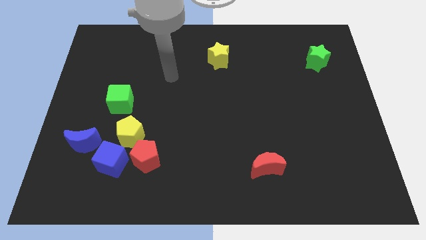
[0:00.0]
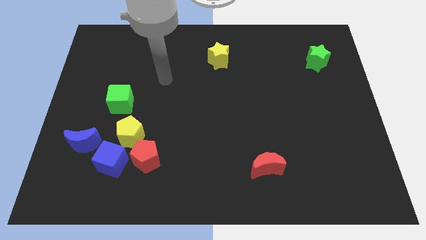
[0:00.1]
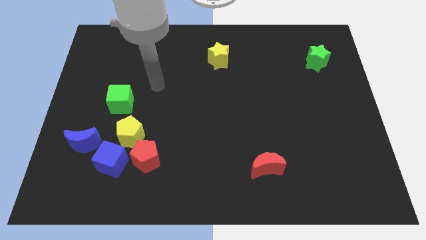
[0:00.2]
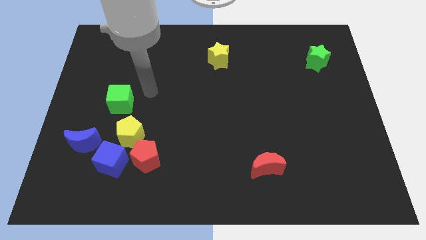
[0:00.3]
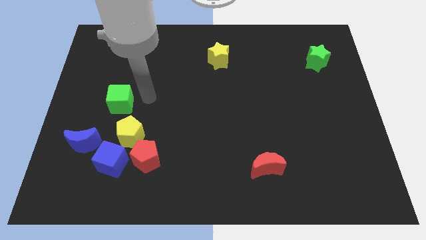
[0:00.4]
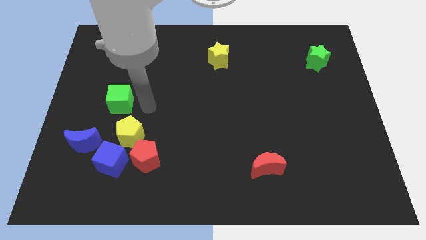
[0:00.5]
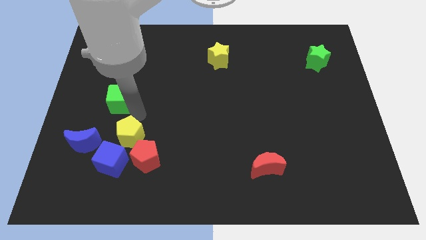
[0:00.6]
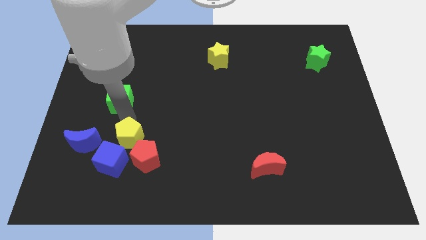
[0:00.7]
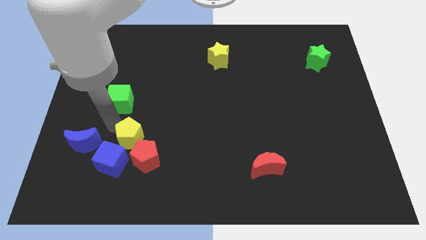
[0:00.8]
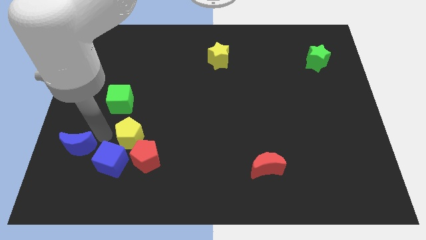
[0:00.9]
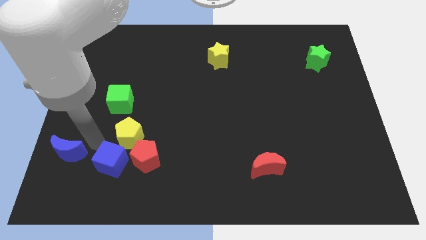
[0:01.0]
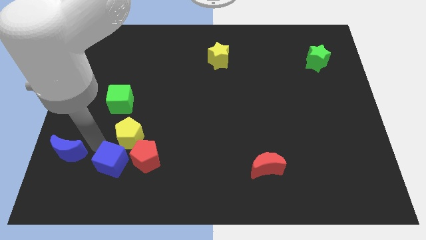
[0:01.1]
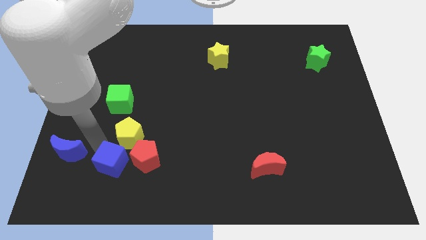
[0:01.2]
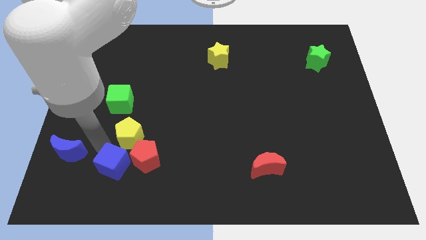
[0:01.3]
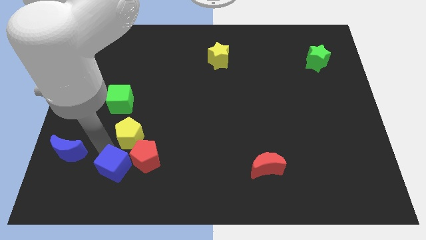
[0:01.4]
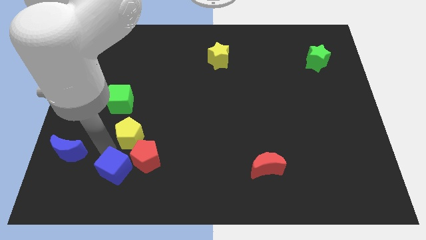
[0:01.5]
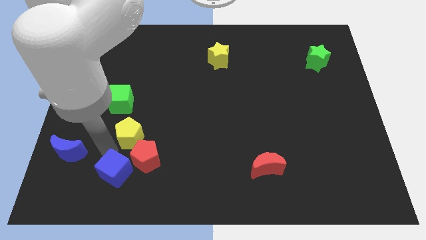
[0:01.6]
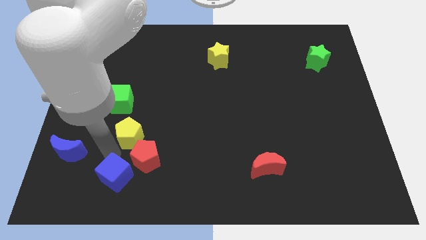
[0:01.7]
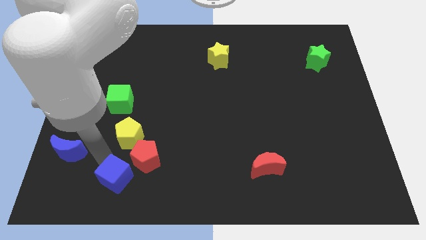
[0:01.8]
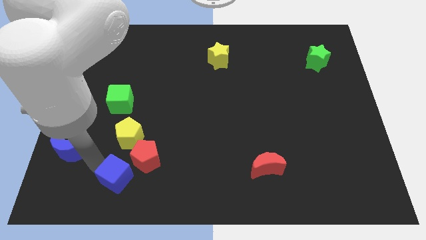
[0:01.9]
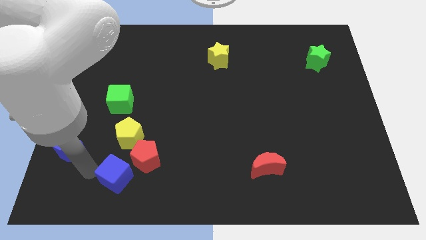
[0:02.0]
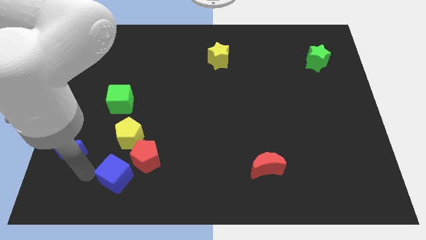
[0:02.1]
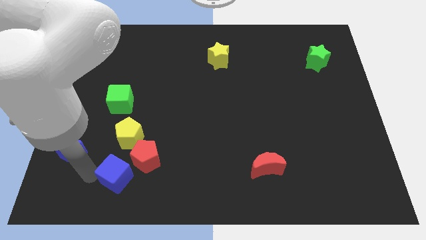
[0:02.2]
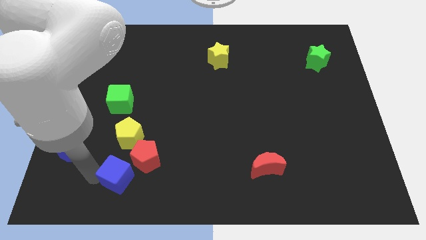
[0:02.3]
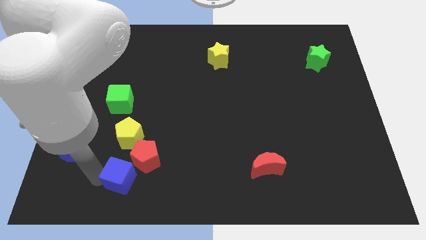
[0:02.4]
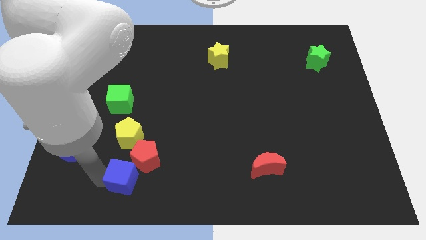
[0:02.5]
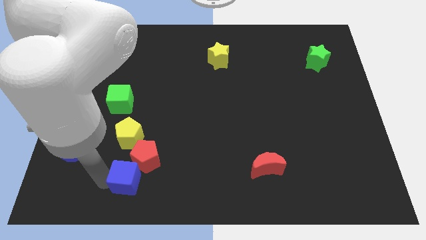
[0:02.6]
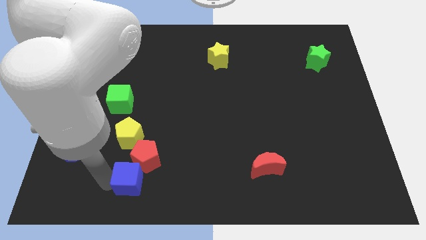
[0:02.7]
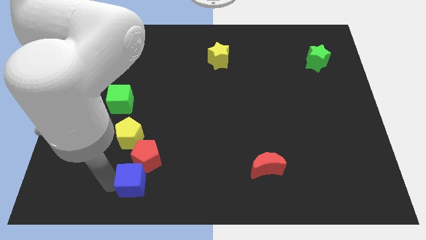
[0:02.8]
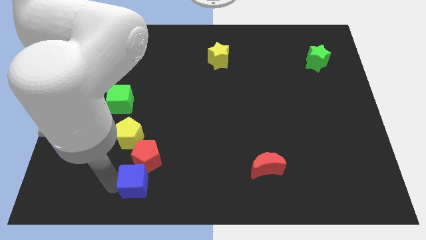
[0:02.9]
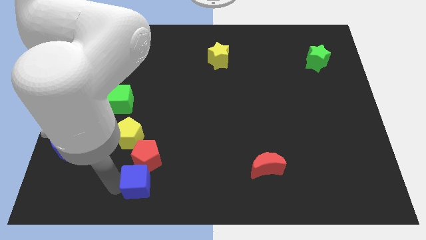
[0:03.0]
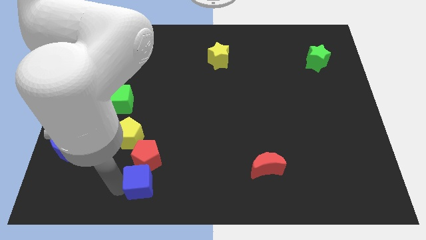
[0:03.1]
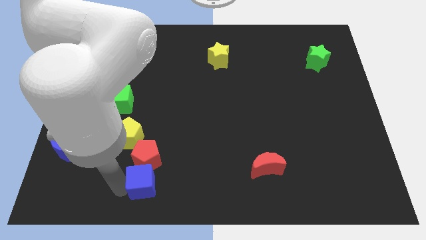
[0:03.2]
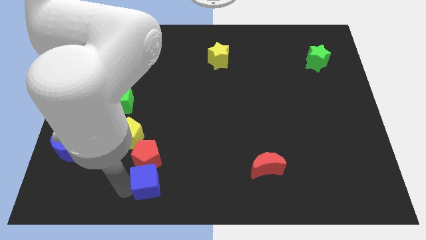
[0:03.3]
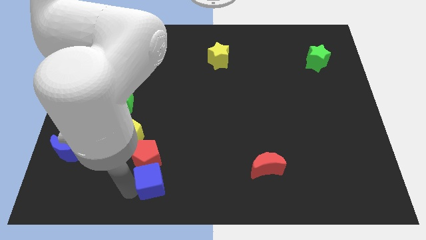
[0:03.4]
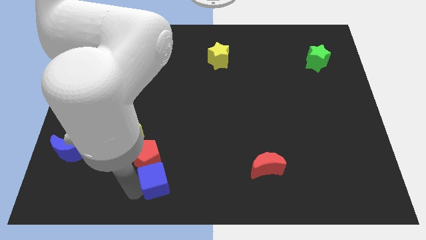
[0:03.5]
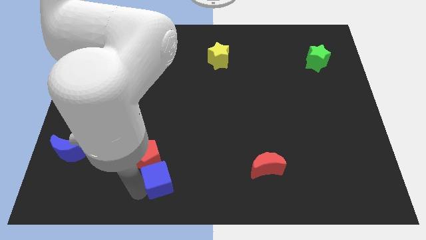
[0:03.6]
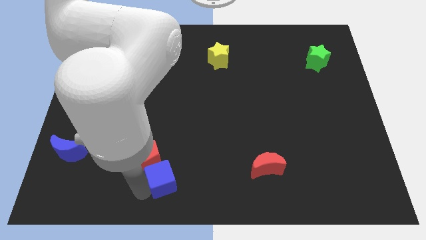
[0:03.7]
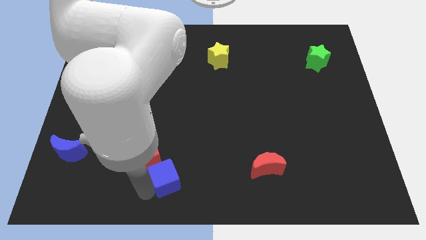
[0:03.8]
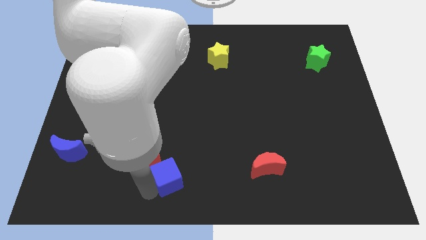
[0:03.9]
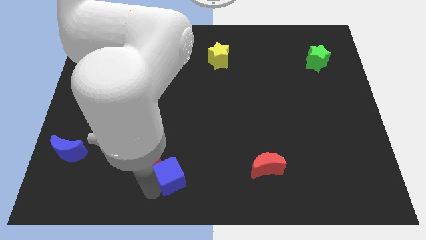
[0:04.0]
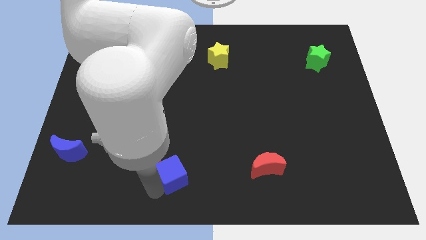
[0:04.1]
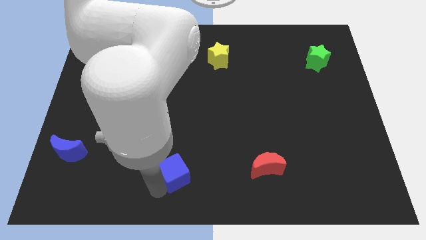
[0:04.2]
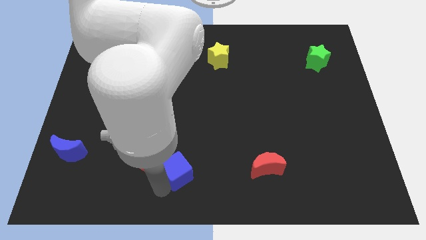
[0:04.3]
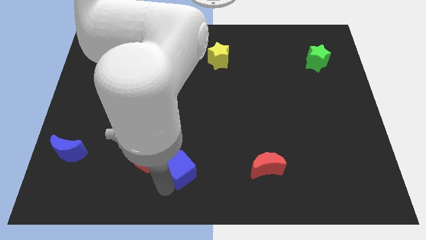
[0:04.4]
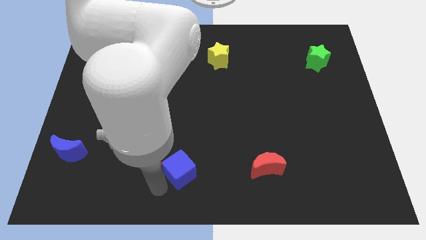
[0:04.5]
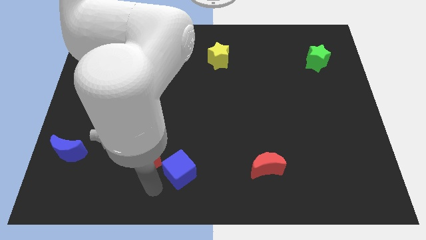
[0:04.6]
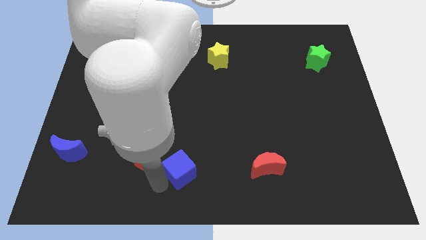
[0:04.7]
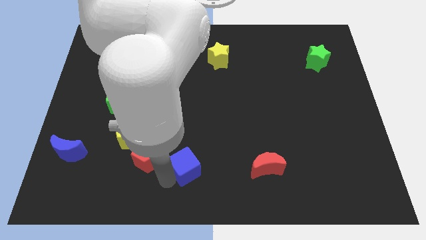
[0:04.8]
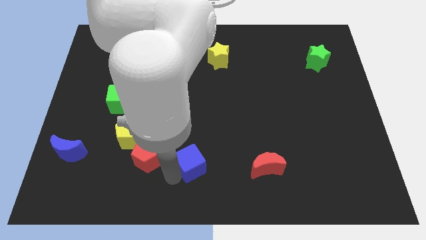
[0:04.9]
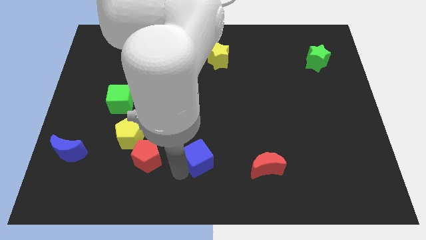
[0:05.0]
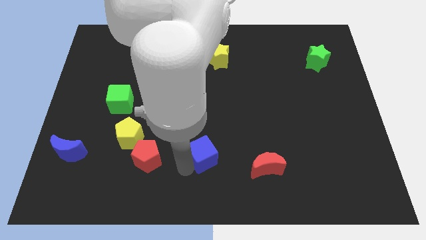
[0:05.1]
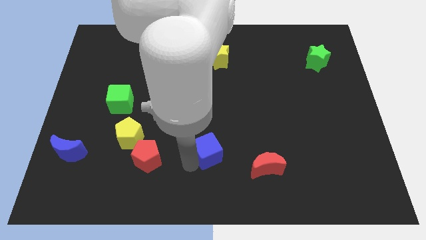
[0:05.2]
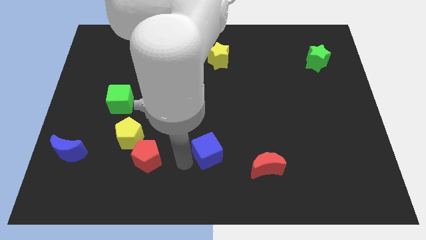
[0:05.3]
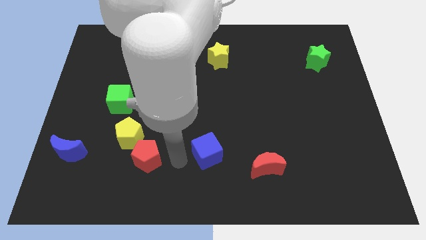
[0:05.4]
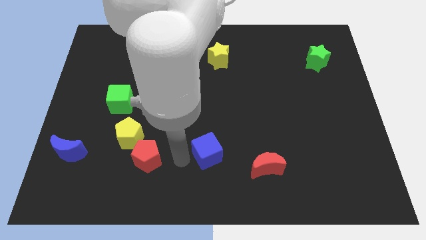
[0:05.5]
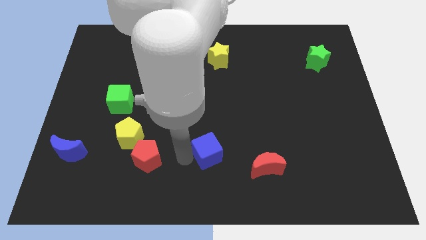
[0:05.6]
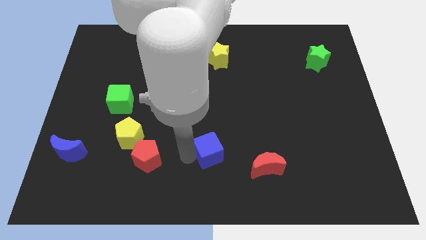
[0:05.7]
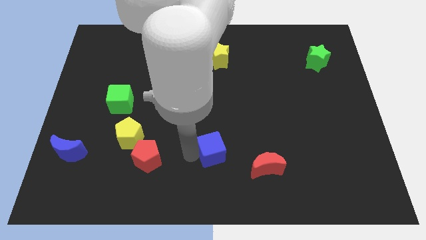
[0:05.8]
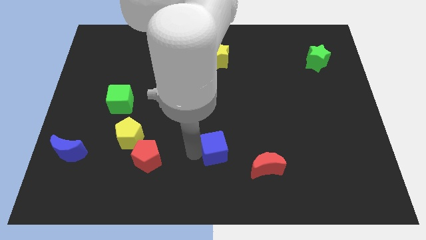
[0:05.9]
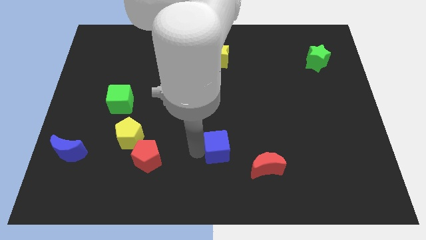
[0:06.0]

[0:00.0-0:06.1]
put the blue cube diagonally up and to the left of the red moon

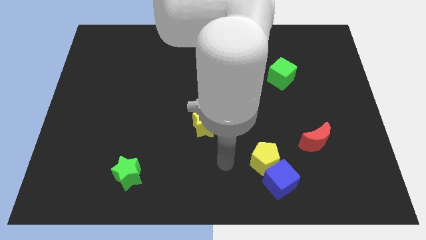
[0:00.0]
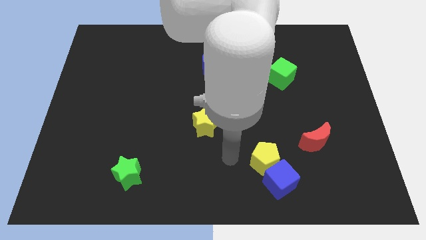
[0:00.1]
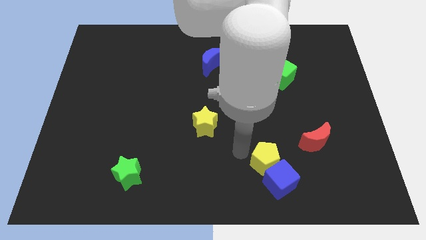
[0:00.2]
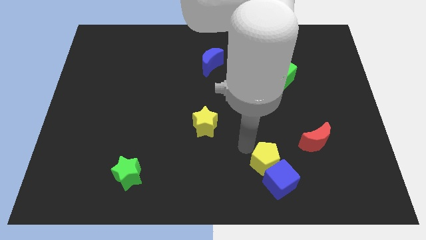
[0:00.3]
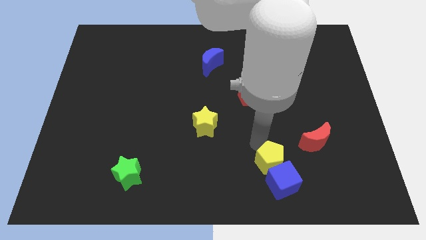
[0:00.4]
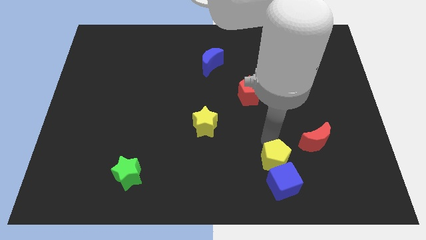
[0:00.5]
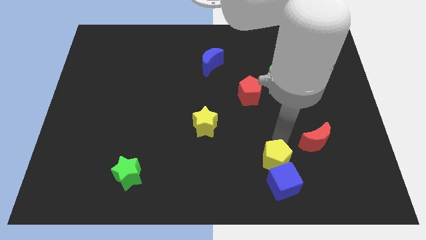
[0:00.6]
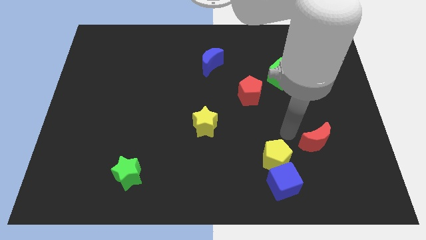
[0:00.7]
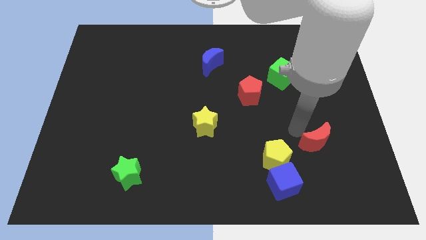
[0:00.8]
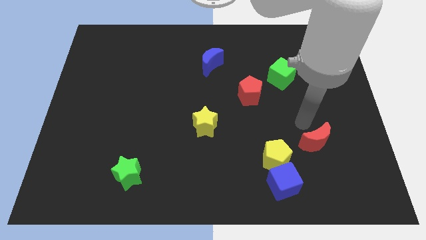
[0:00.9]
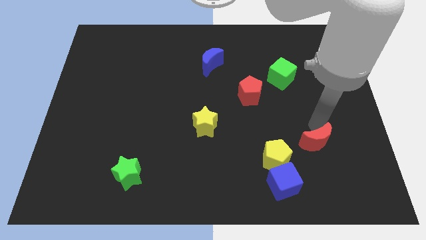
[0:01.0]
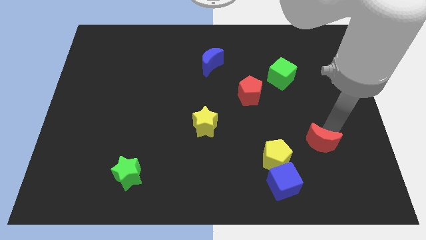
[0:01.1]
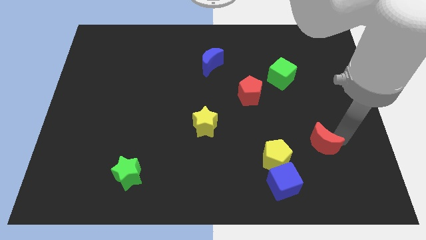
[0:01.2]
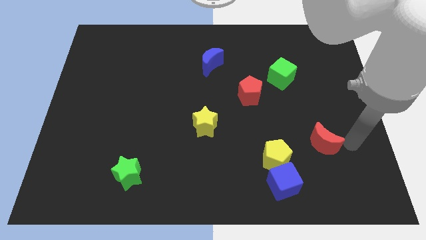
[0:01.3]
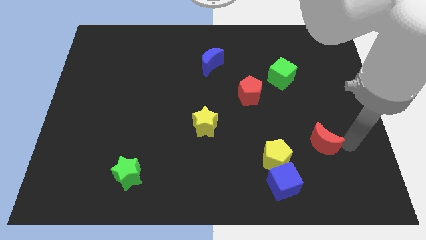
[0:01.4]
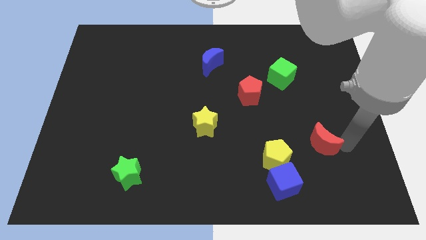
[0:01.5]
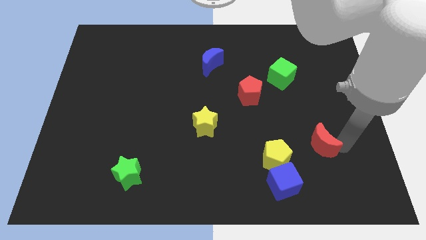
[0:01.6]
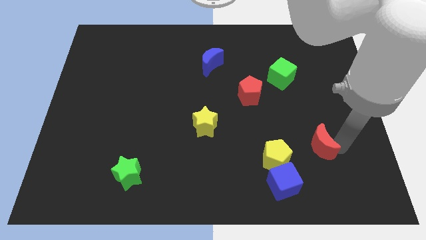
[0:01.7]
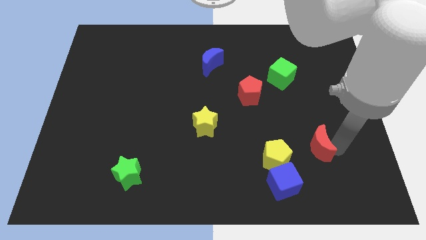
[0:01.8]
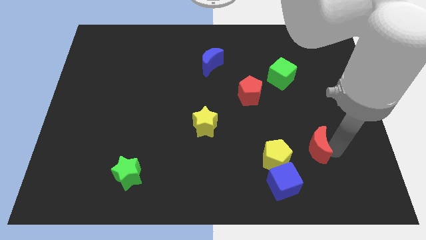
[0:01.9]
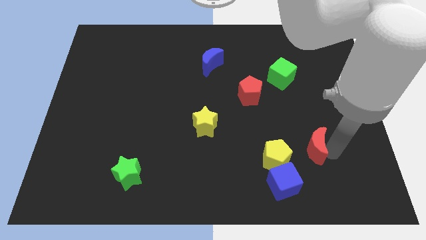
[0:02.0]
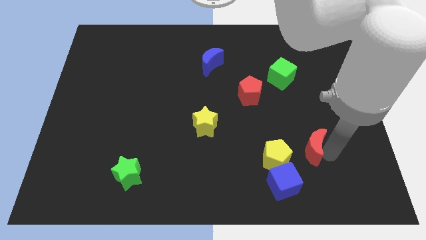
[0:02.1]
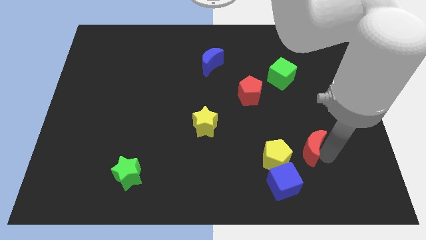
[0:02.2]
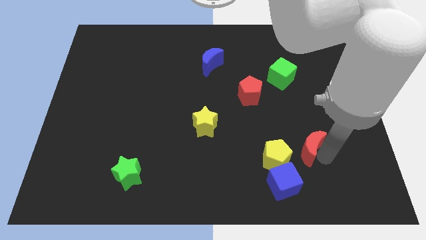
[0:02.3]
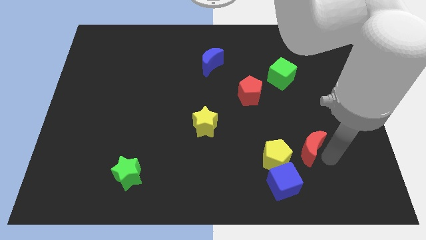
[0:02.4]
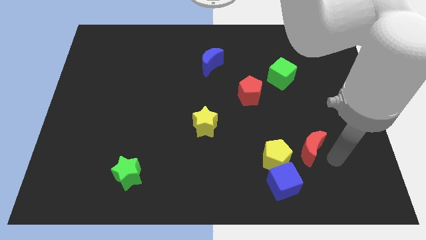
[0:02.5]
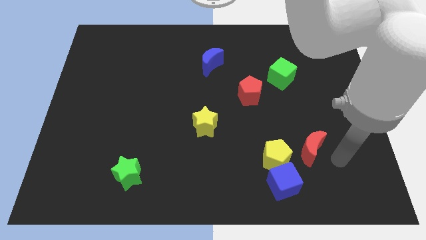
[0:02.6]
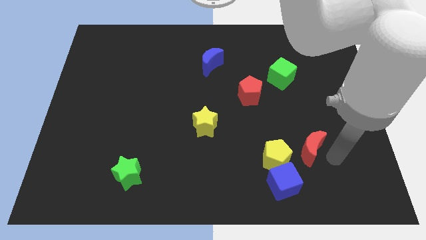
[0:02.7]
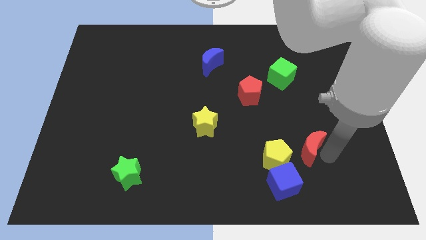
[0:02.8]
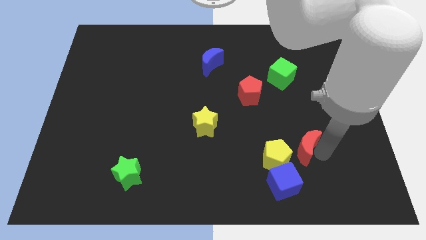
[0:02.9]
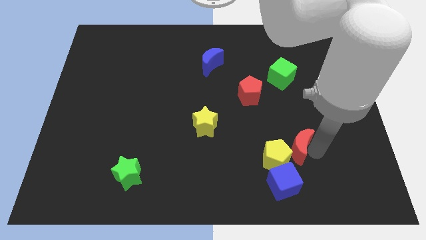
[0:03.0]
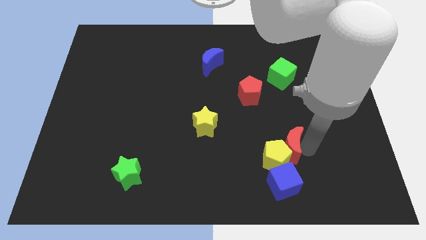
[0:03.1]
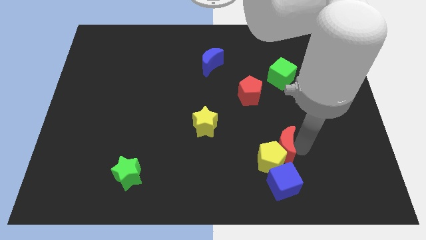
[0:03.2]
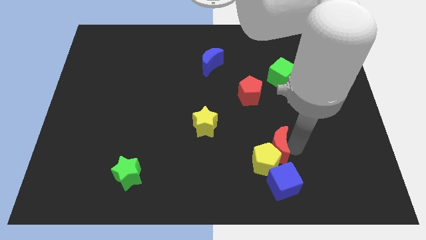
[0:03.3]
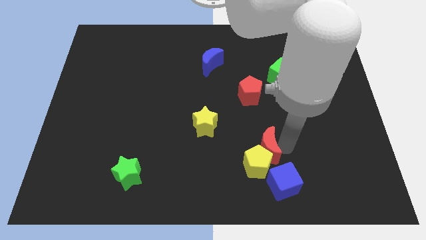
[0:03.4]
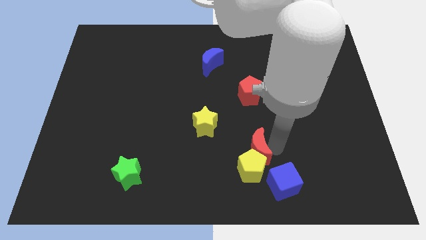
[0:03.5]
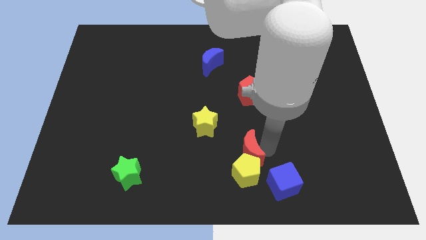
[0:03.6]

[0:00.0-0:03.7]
move the red moon diagonally down and to the right of the yellow star
